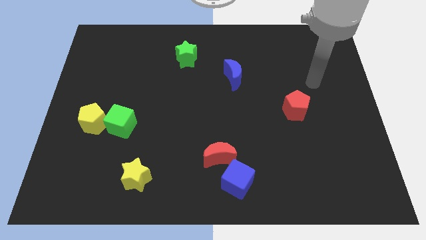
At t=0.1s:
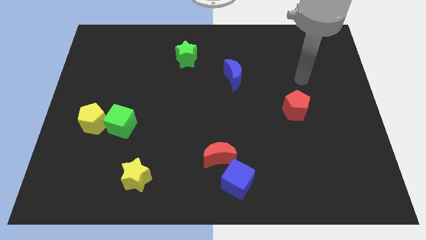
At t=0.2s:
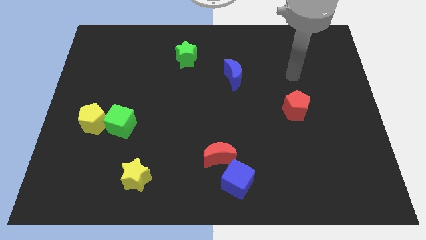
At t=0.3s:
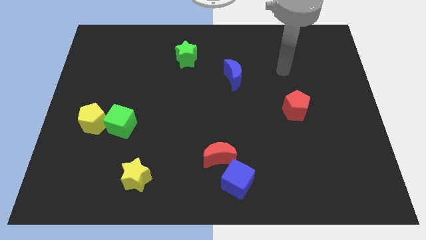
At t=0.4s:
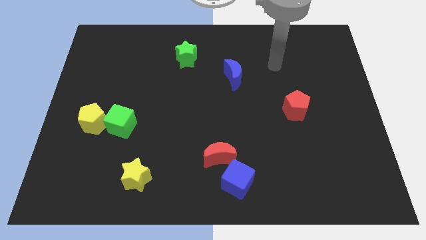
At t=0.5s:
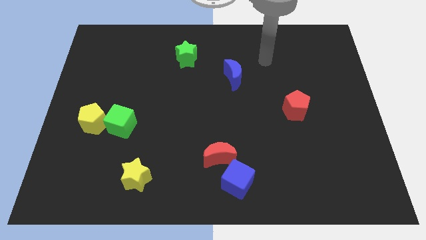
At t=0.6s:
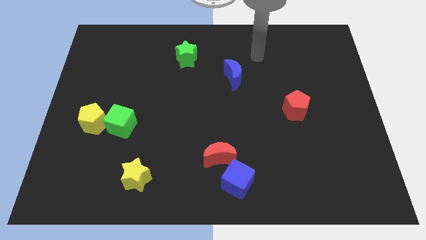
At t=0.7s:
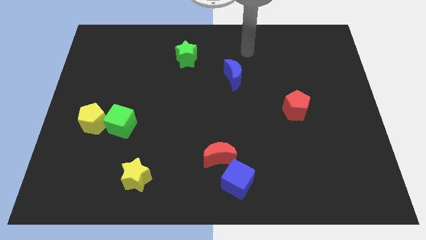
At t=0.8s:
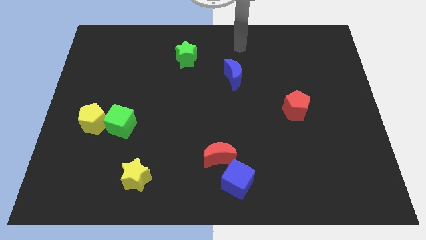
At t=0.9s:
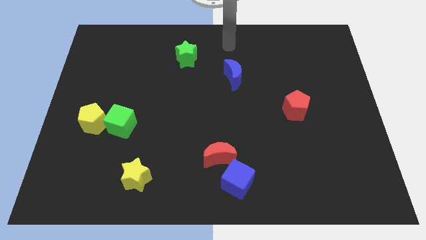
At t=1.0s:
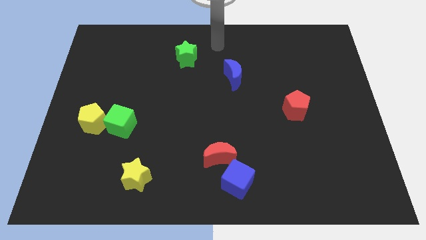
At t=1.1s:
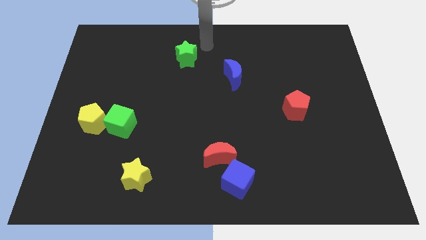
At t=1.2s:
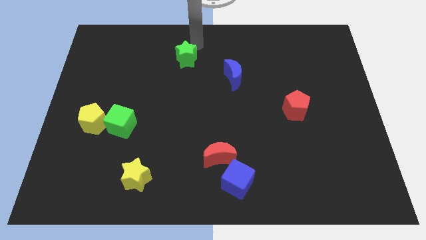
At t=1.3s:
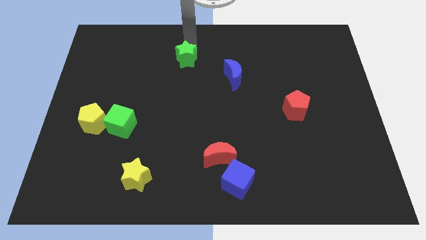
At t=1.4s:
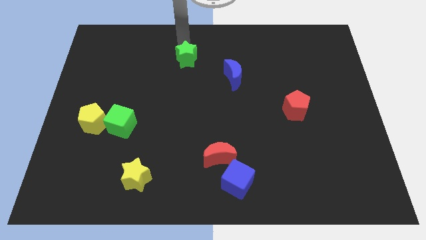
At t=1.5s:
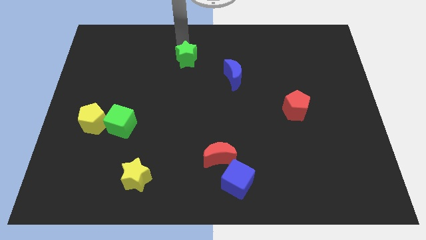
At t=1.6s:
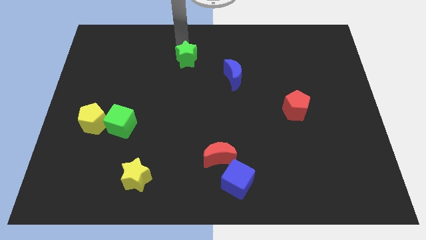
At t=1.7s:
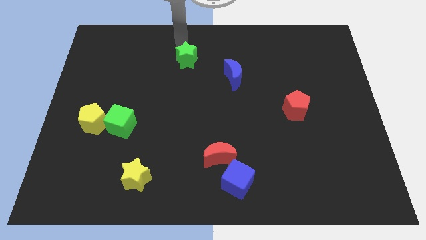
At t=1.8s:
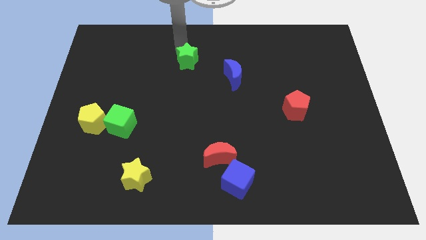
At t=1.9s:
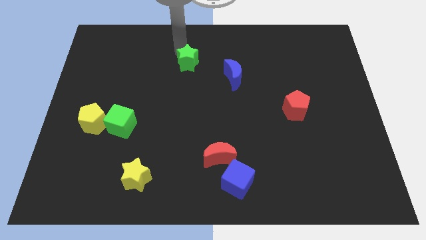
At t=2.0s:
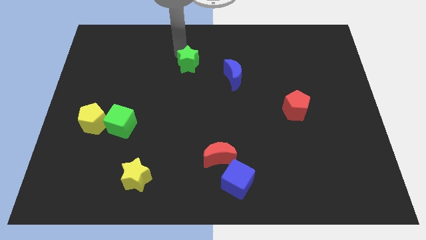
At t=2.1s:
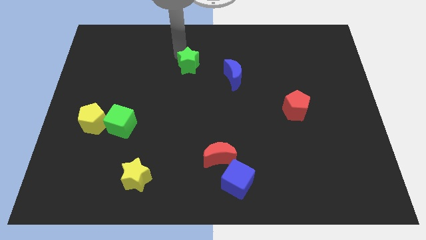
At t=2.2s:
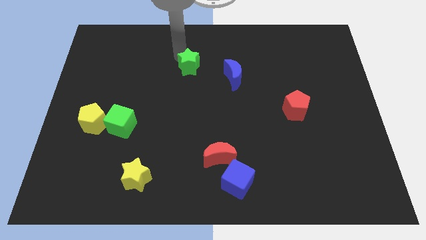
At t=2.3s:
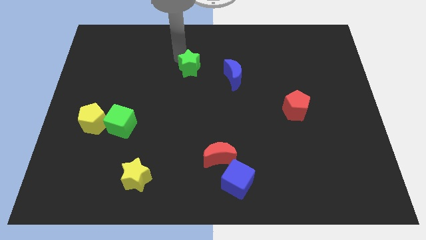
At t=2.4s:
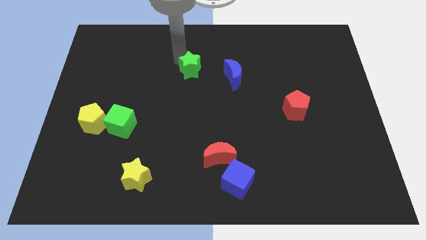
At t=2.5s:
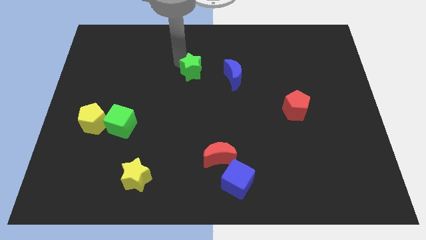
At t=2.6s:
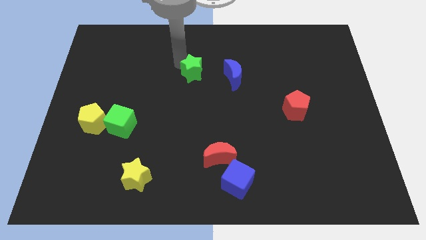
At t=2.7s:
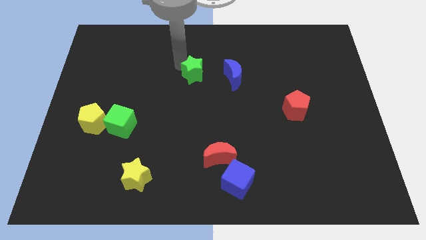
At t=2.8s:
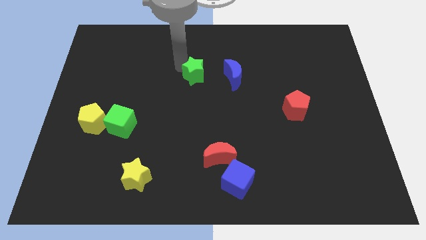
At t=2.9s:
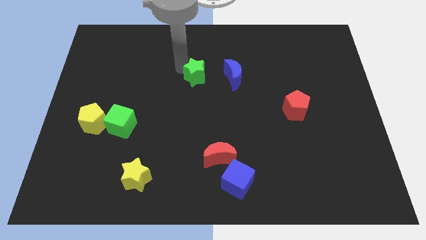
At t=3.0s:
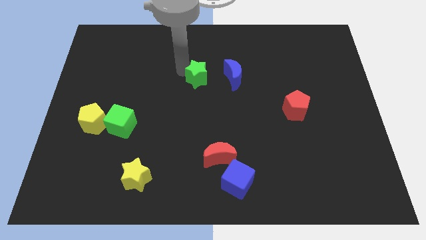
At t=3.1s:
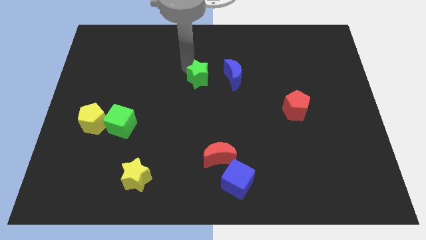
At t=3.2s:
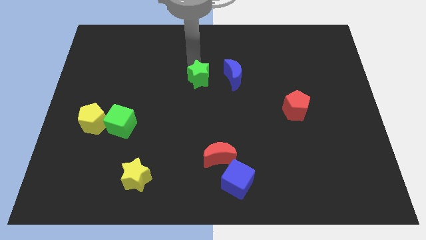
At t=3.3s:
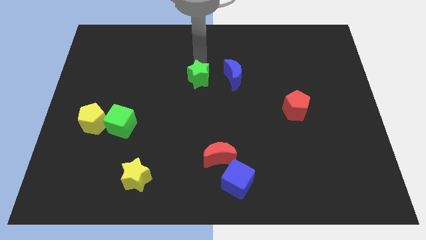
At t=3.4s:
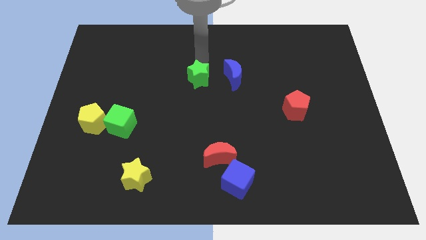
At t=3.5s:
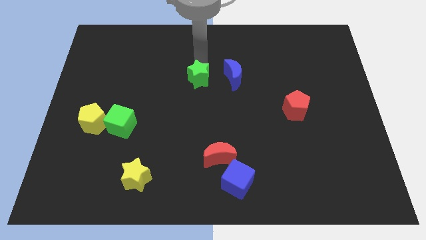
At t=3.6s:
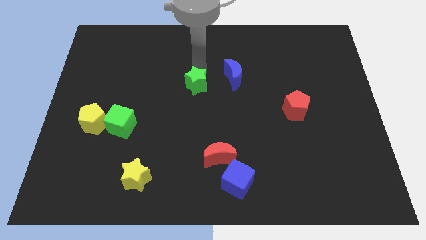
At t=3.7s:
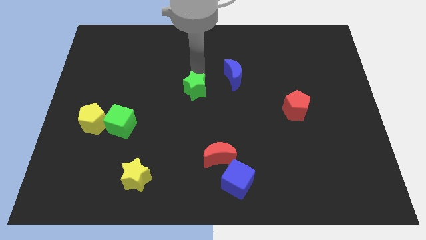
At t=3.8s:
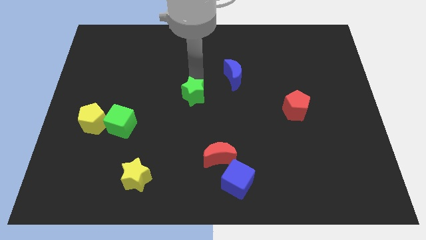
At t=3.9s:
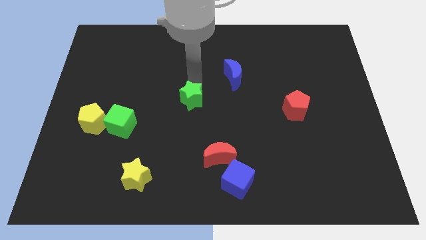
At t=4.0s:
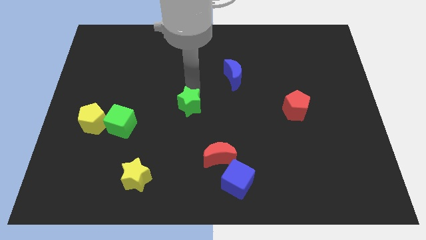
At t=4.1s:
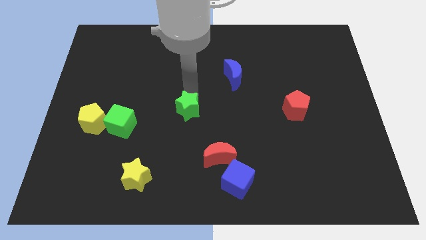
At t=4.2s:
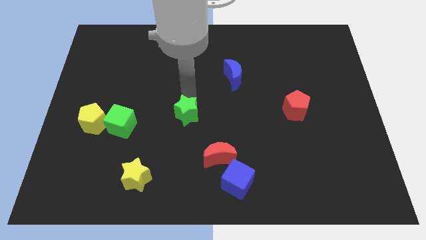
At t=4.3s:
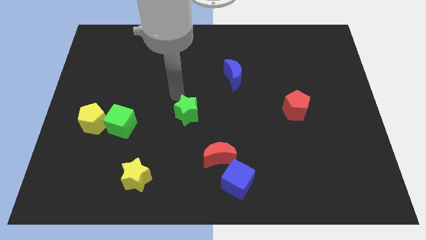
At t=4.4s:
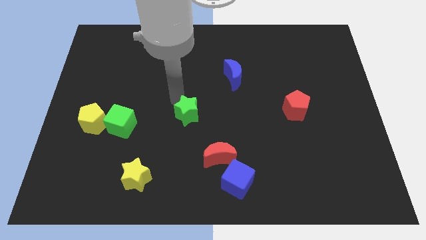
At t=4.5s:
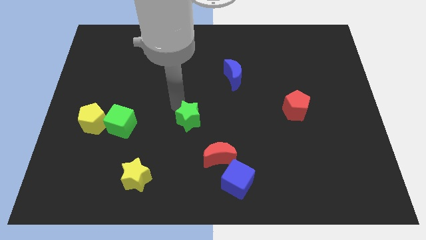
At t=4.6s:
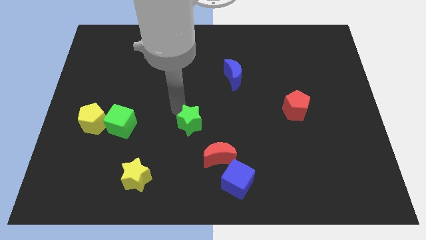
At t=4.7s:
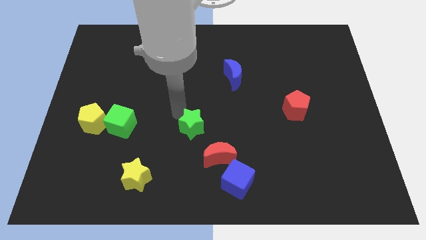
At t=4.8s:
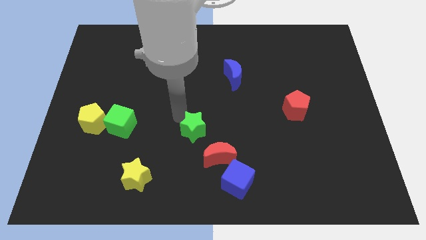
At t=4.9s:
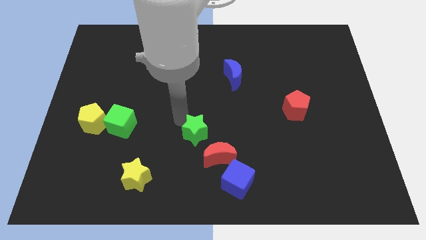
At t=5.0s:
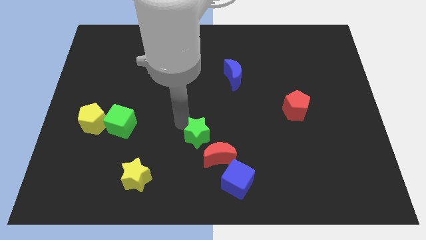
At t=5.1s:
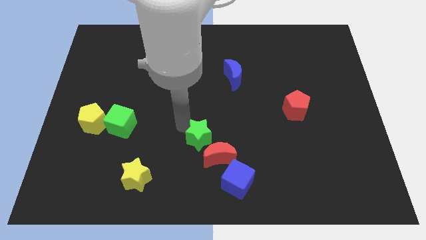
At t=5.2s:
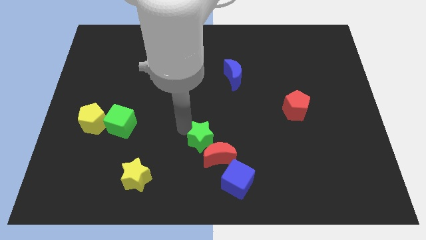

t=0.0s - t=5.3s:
slide the green star diagonally up and to the left of the blue cube

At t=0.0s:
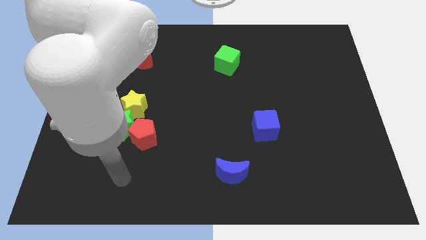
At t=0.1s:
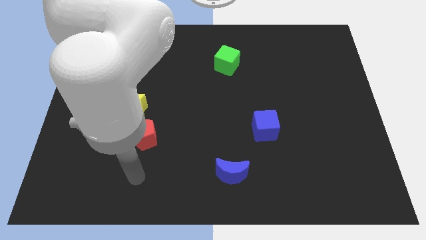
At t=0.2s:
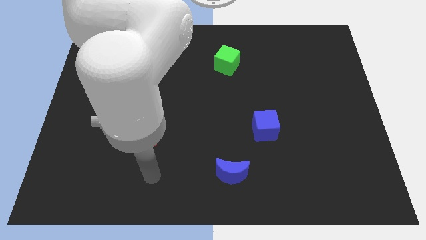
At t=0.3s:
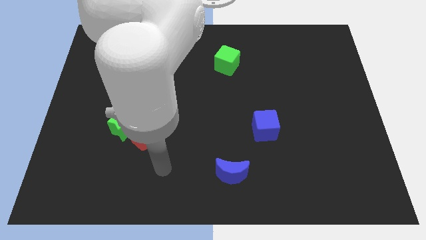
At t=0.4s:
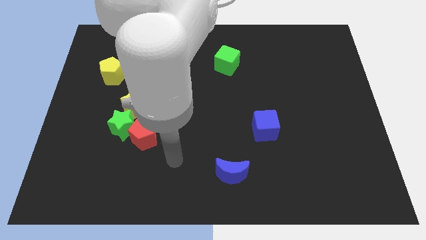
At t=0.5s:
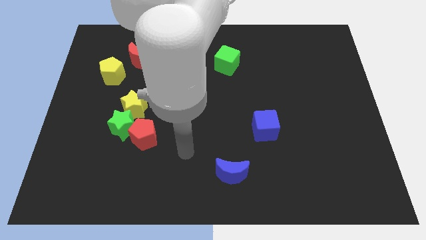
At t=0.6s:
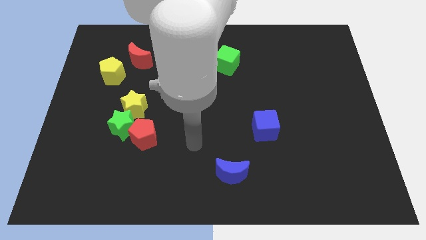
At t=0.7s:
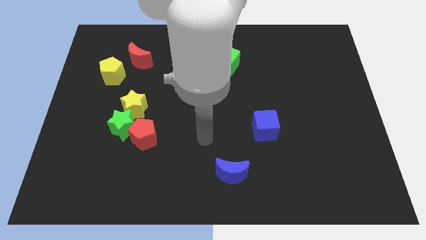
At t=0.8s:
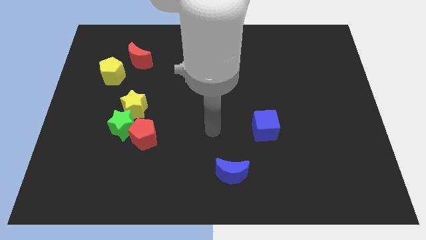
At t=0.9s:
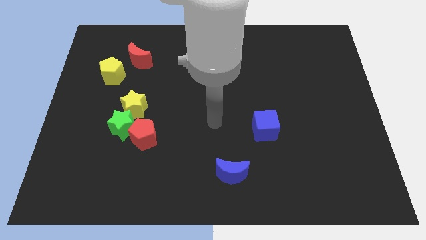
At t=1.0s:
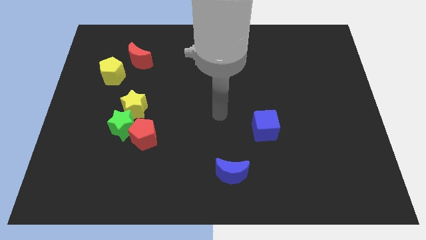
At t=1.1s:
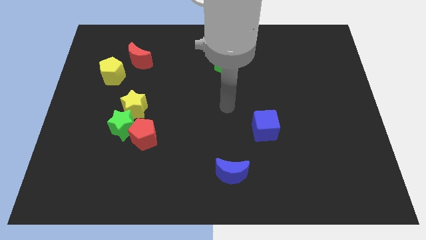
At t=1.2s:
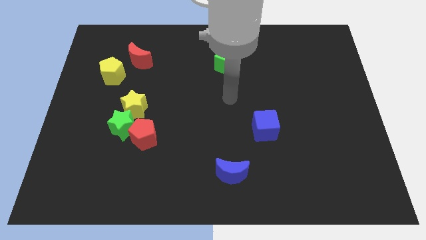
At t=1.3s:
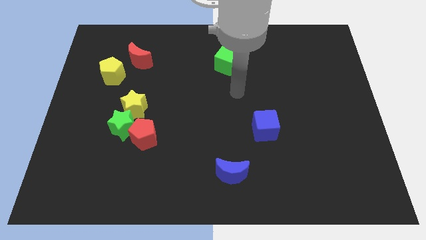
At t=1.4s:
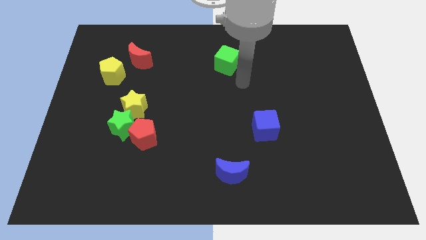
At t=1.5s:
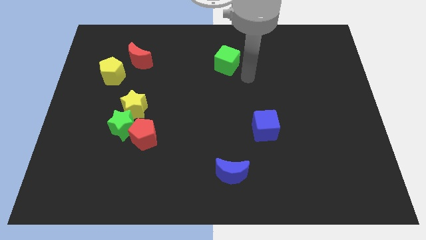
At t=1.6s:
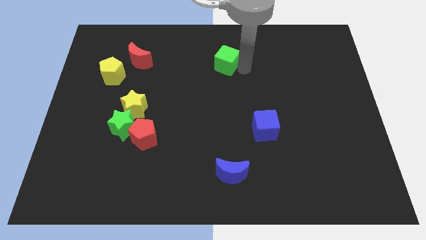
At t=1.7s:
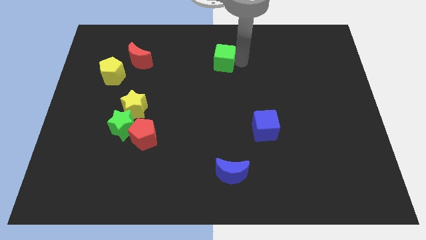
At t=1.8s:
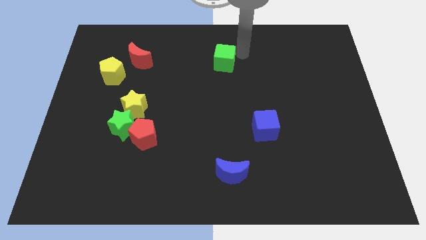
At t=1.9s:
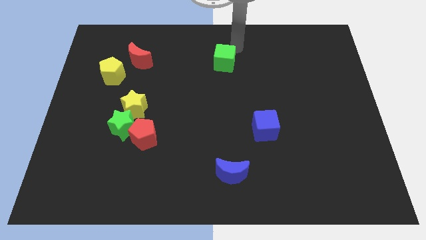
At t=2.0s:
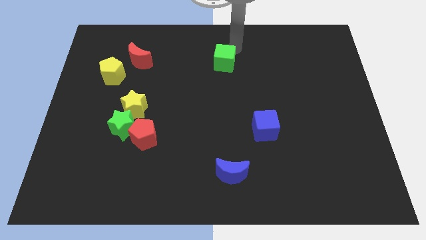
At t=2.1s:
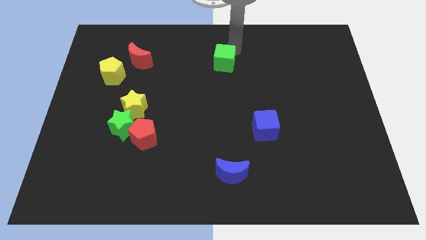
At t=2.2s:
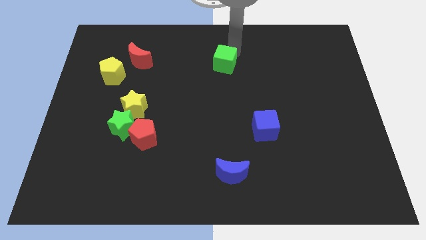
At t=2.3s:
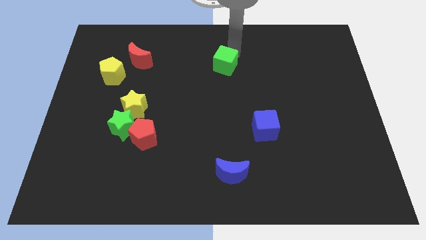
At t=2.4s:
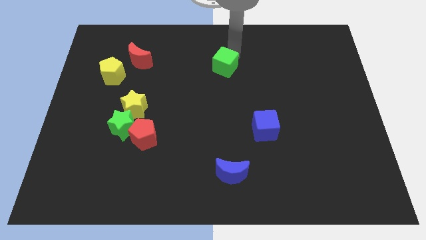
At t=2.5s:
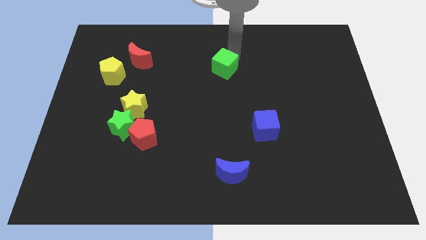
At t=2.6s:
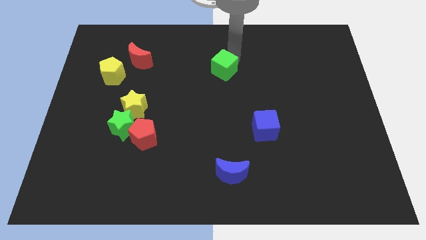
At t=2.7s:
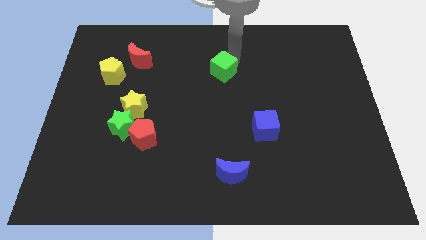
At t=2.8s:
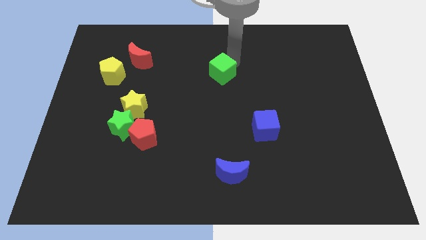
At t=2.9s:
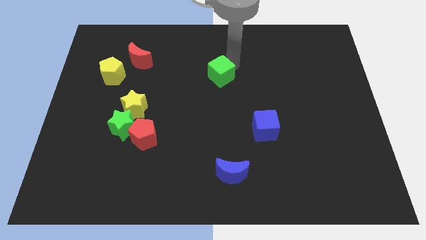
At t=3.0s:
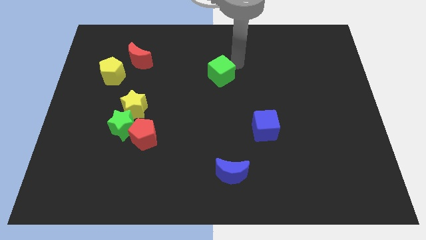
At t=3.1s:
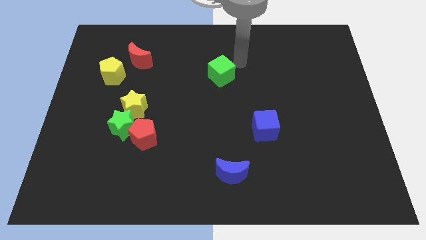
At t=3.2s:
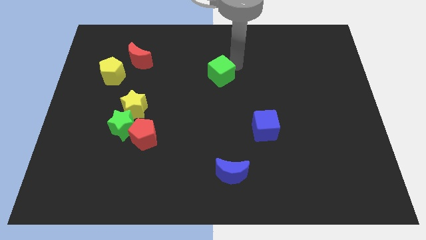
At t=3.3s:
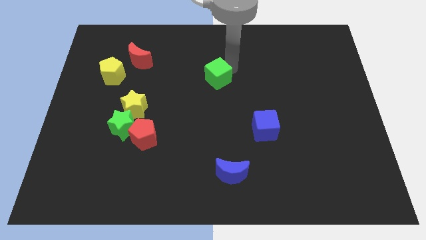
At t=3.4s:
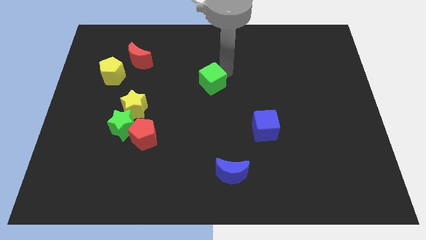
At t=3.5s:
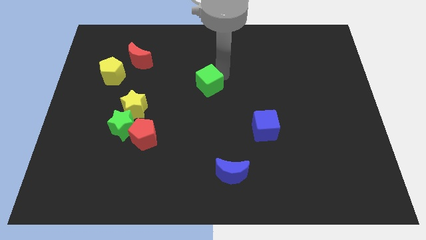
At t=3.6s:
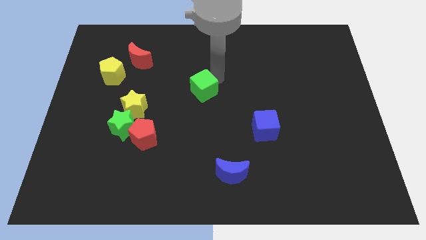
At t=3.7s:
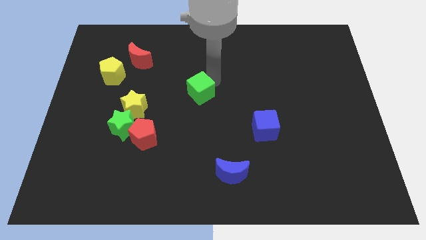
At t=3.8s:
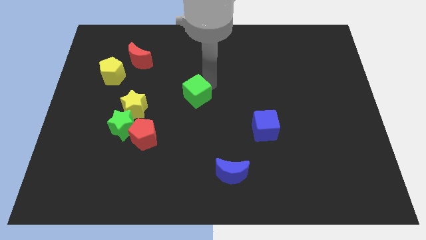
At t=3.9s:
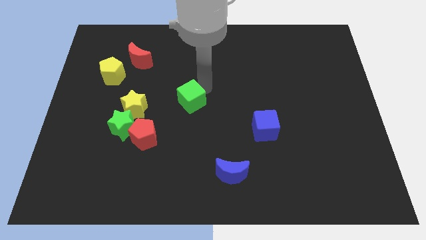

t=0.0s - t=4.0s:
move the green cube to the right side of the yellow star
